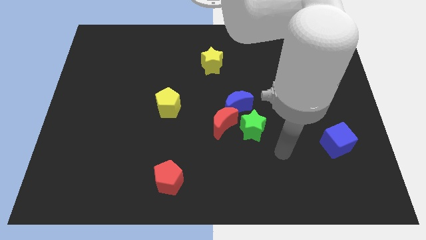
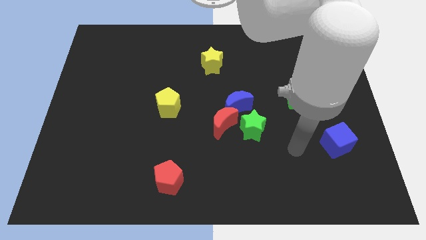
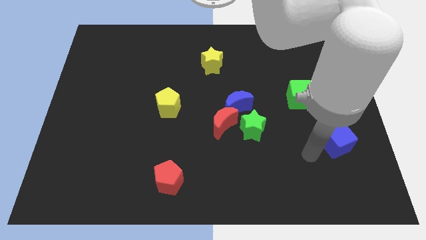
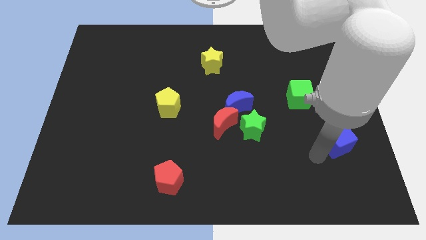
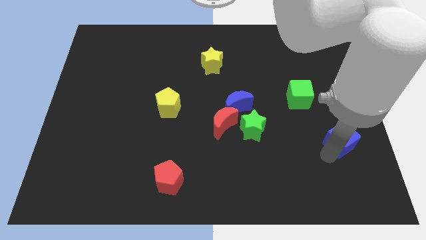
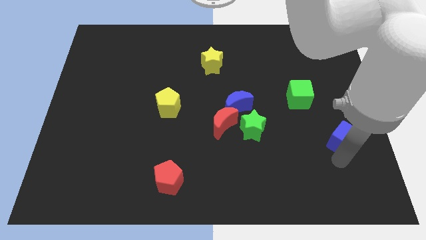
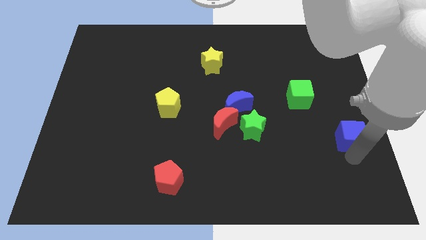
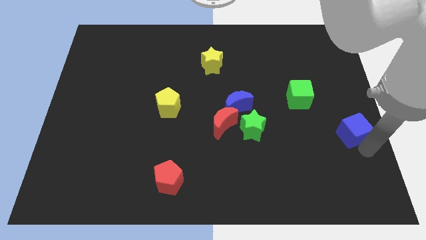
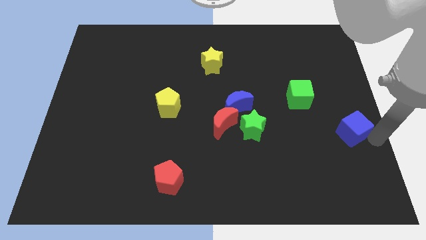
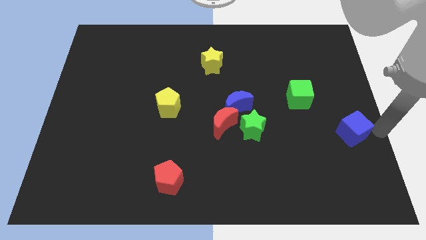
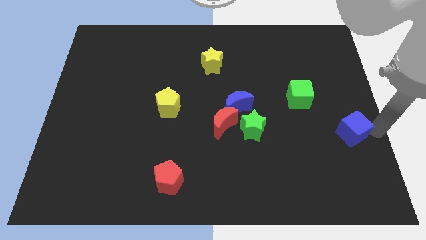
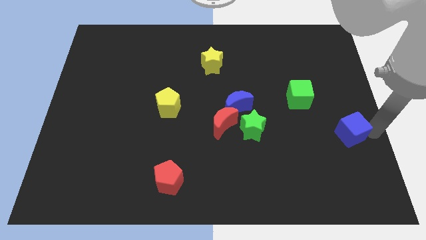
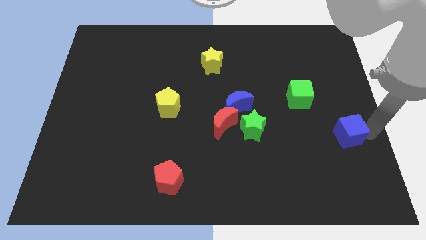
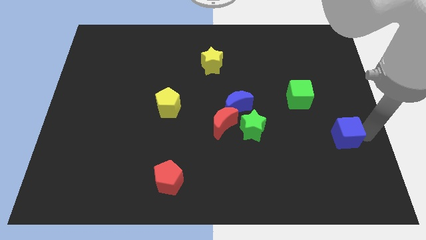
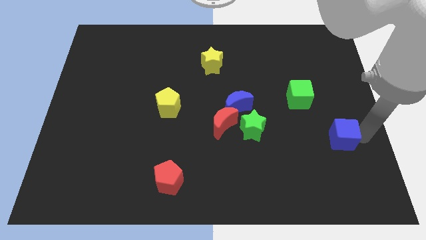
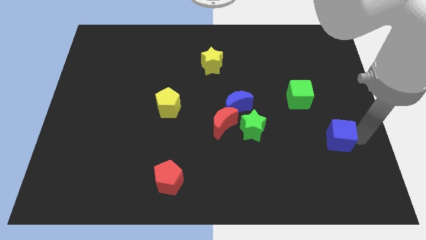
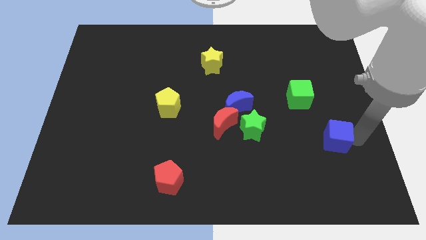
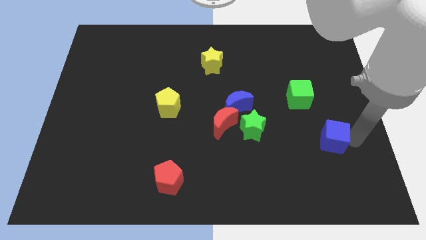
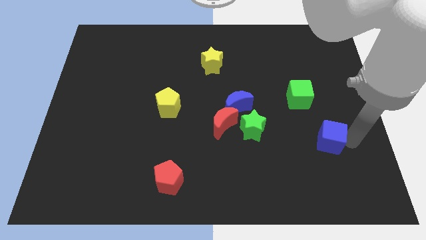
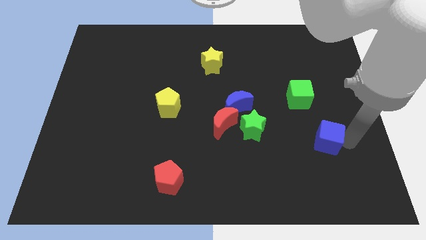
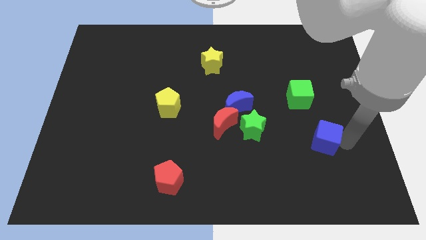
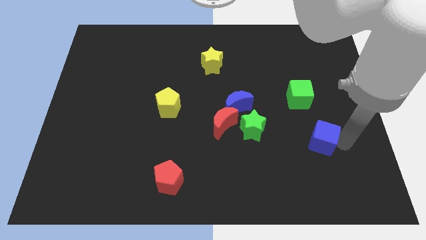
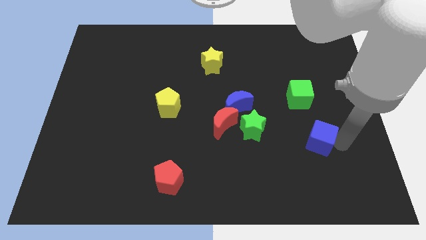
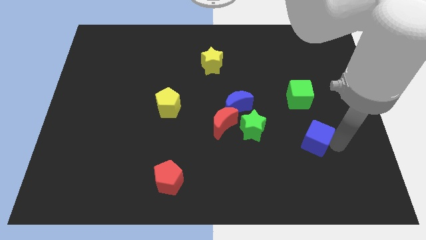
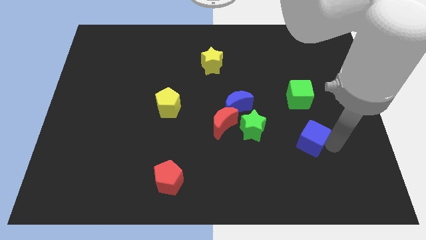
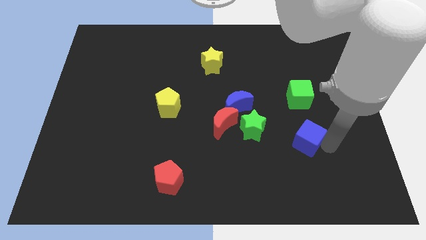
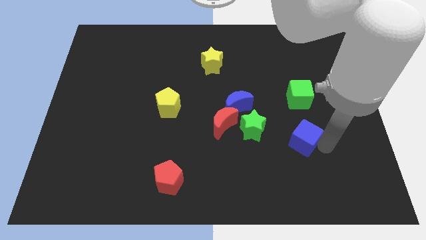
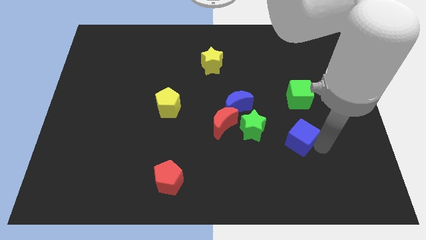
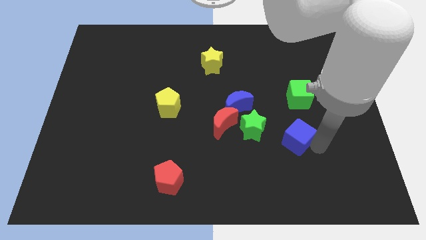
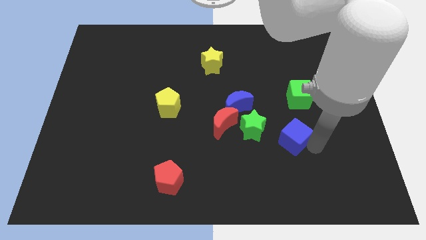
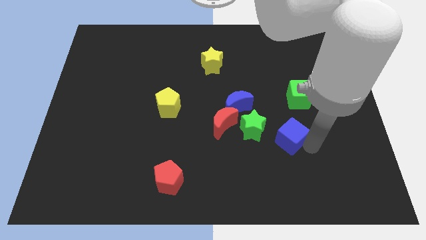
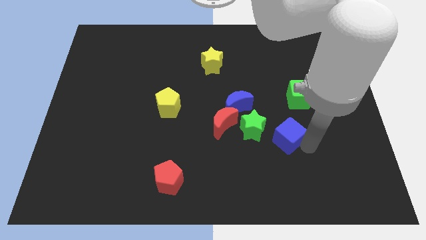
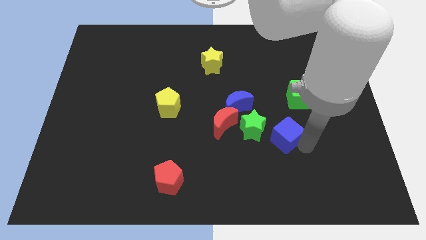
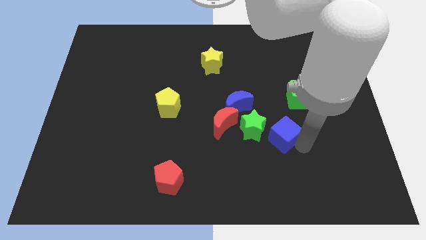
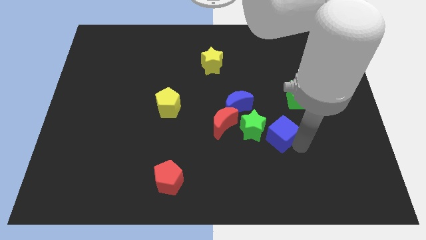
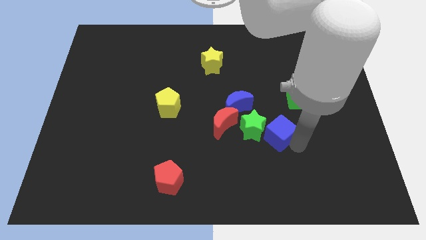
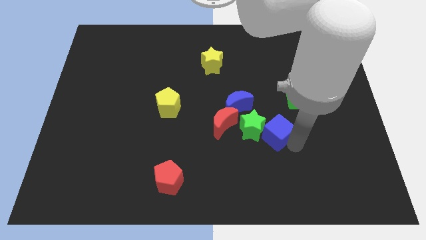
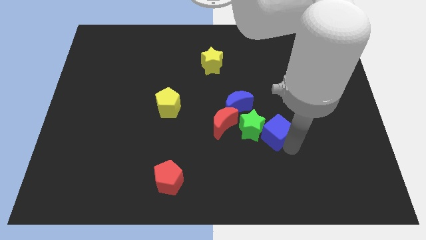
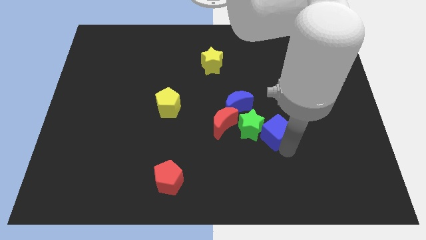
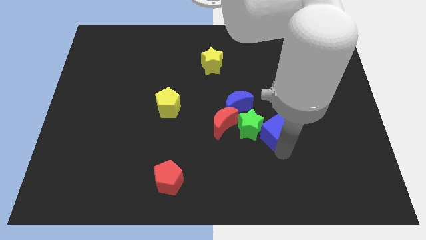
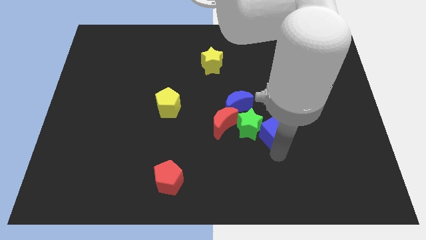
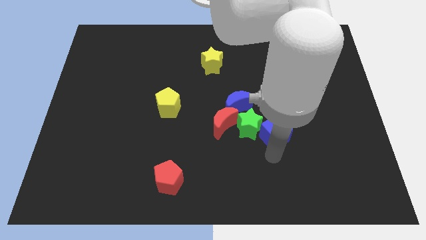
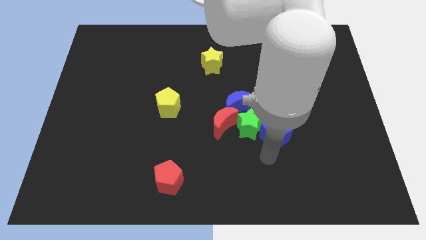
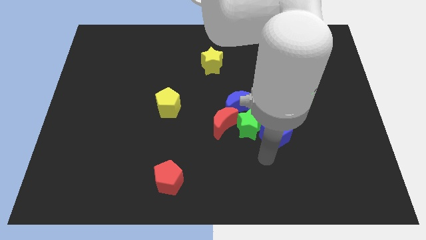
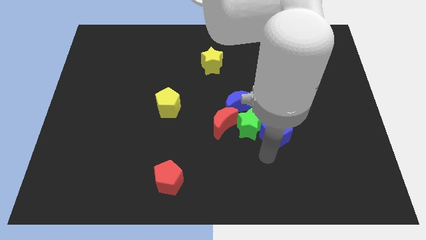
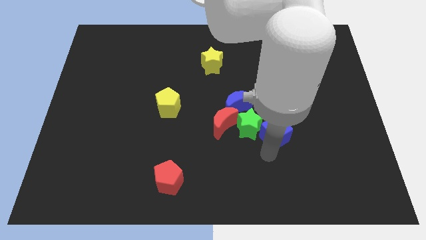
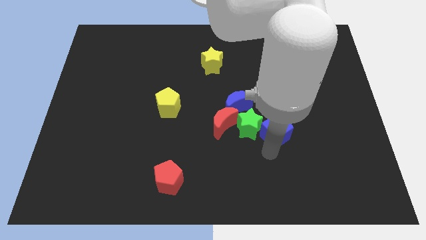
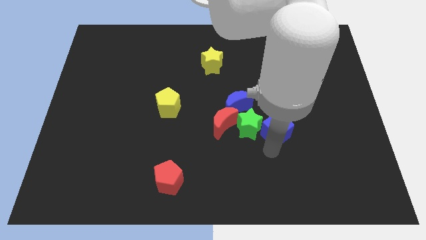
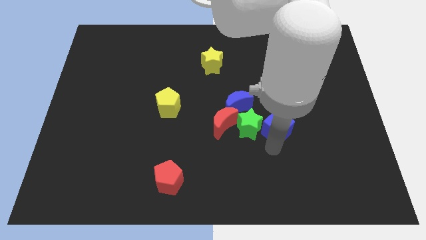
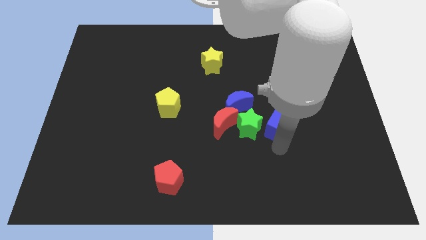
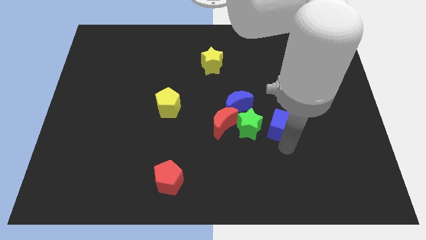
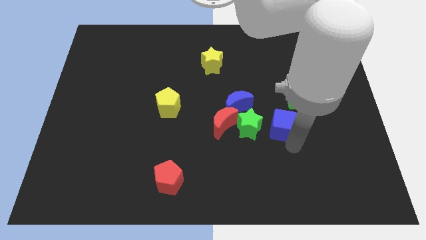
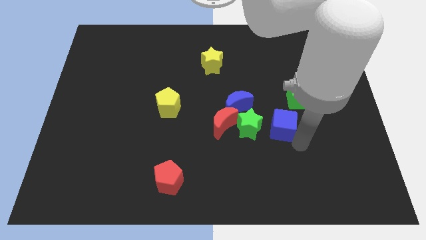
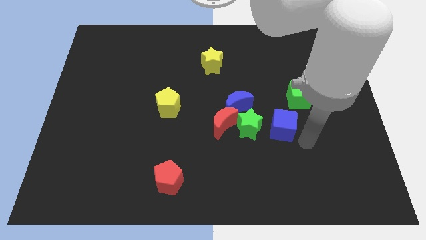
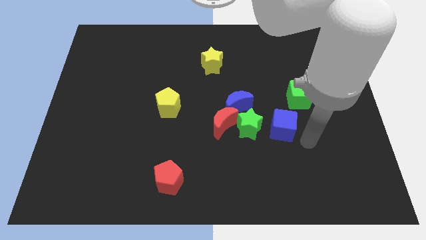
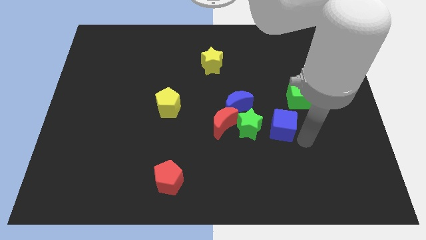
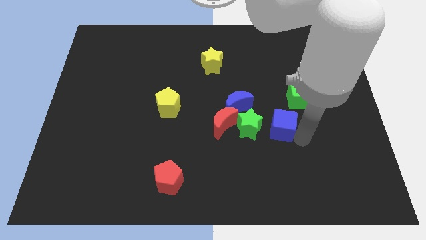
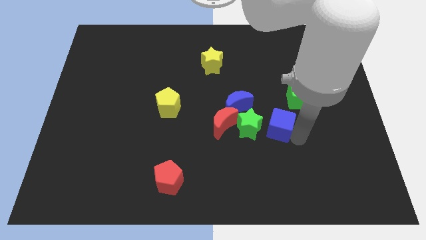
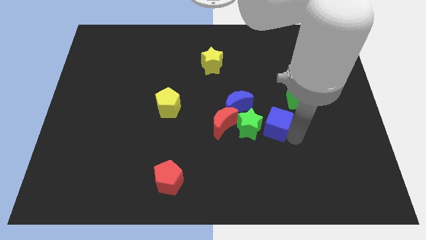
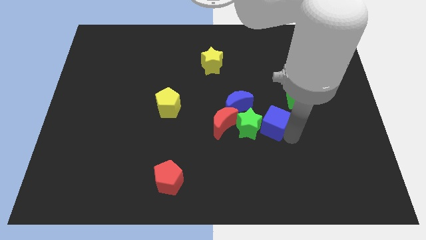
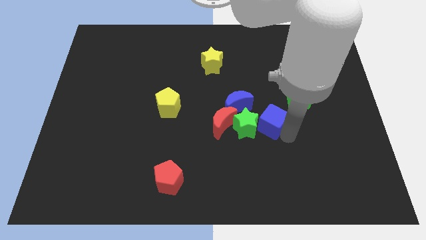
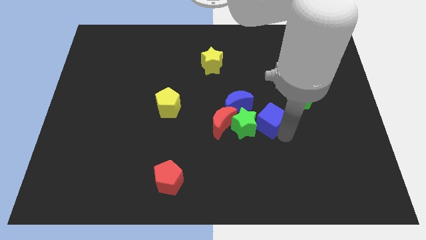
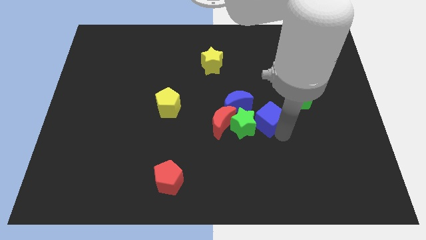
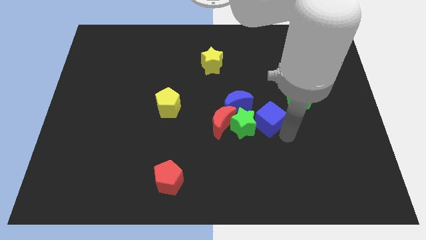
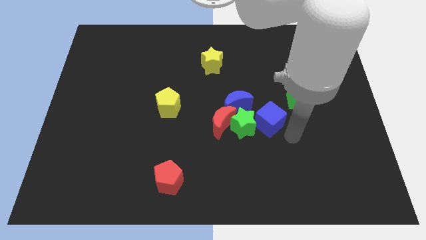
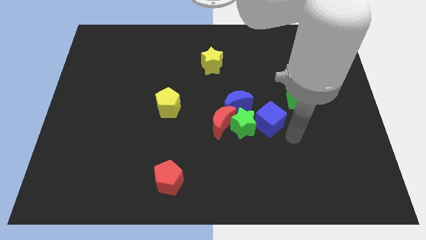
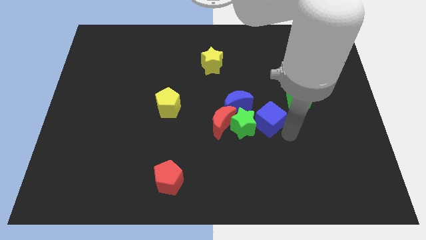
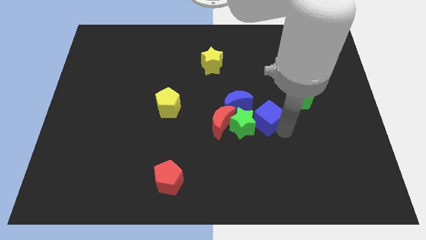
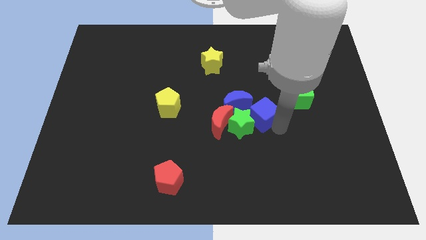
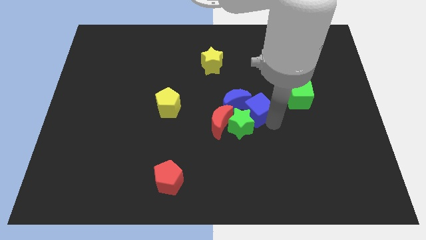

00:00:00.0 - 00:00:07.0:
push the blue cube towards the blue moon

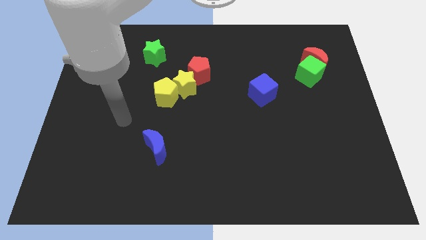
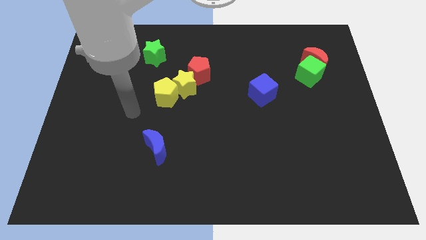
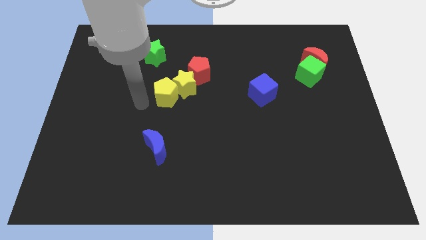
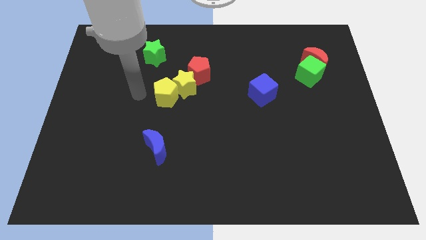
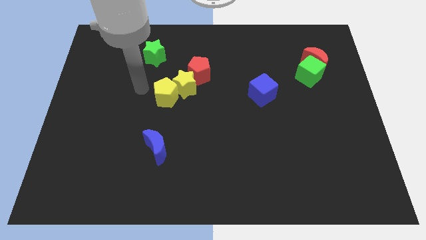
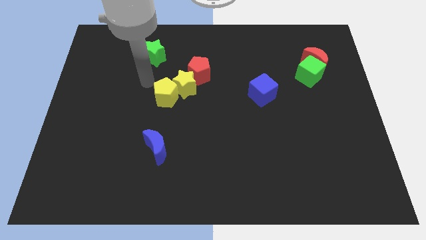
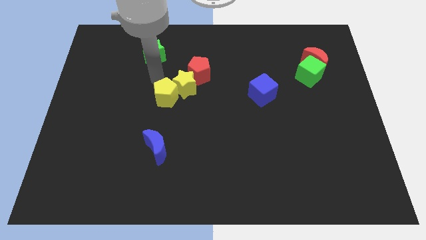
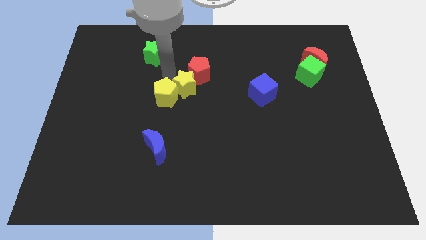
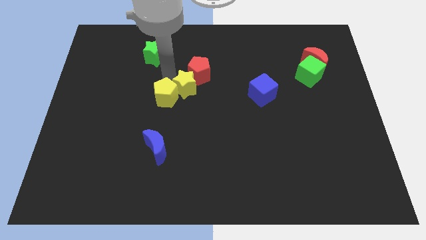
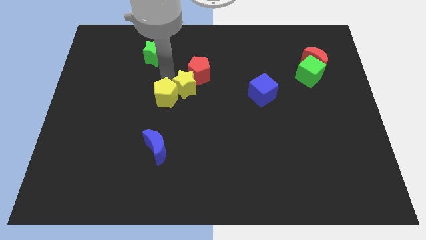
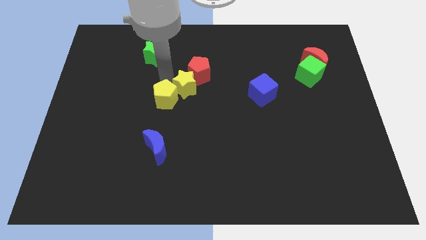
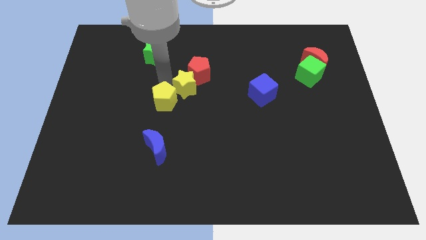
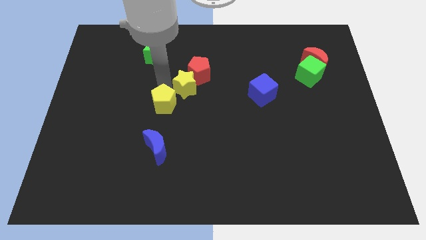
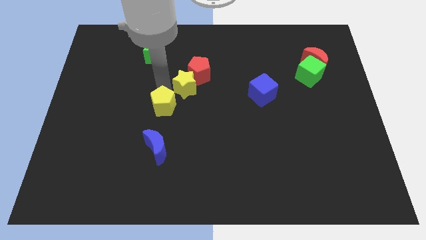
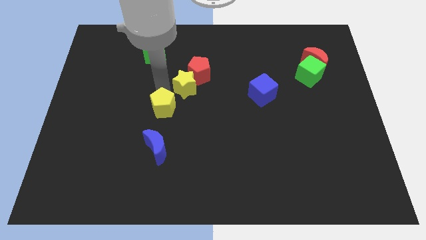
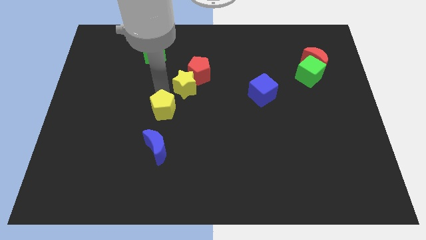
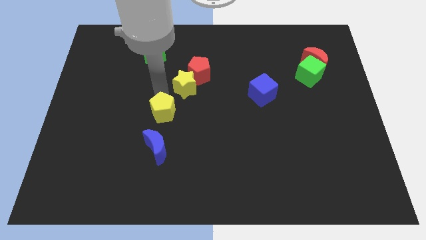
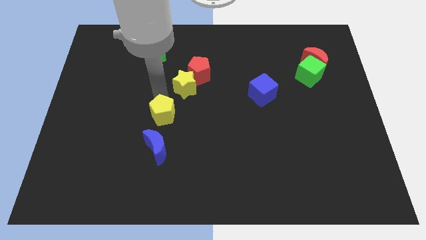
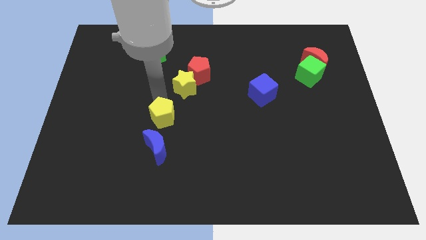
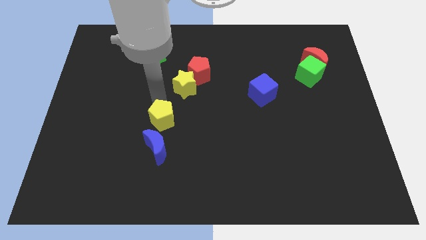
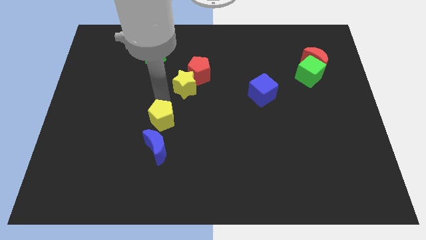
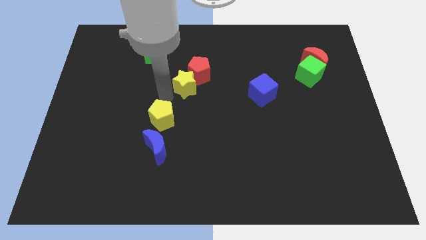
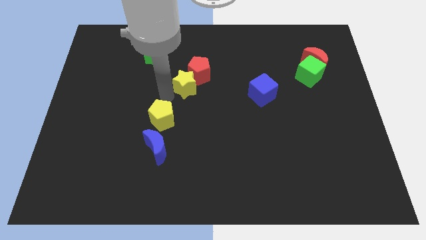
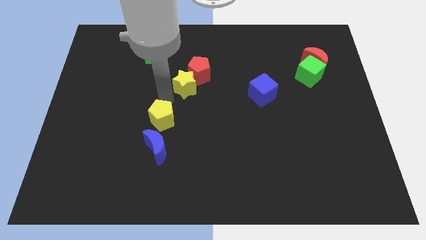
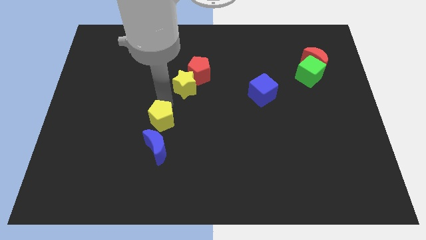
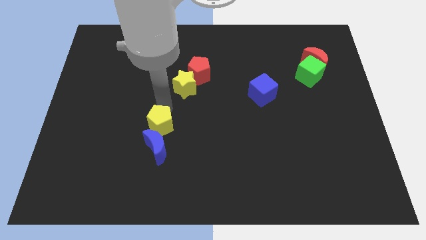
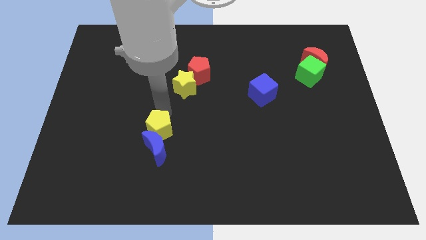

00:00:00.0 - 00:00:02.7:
push the yellow pentagon next to the blue moon
